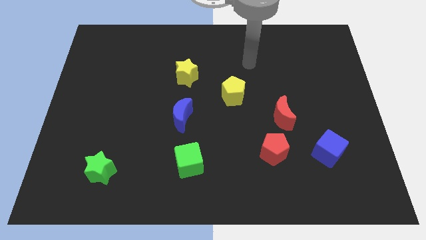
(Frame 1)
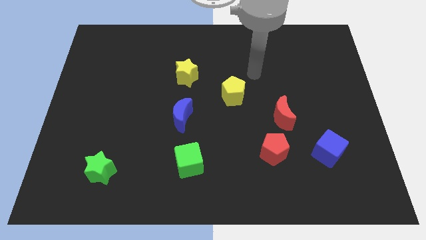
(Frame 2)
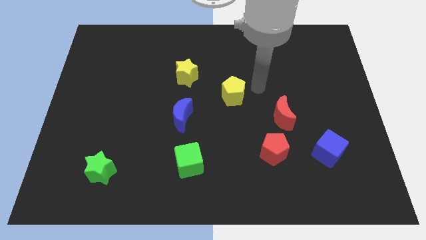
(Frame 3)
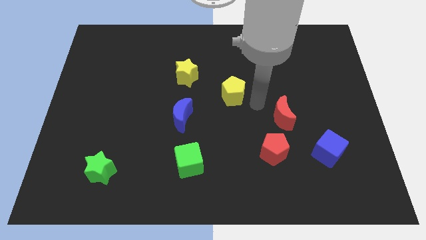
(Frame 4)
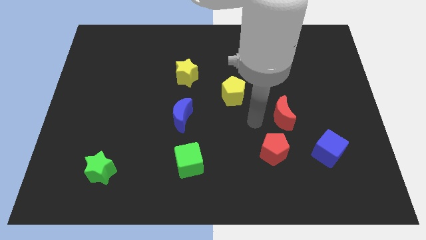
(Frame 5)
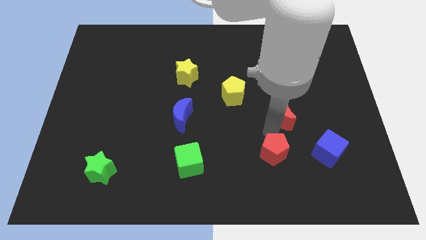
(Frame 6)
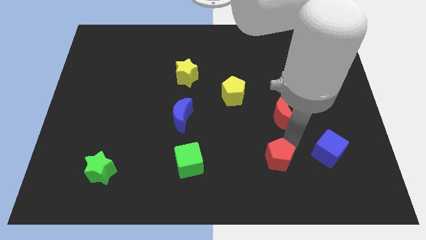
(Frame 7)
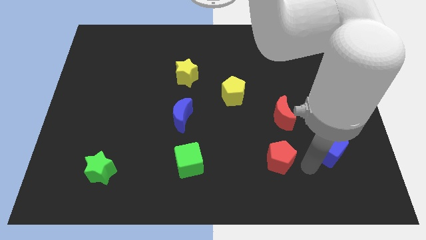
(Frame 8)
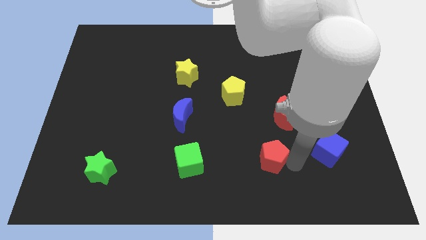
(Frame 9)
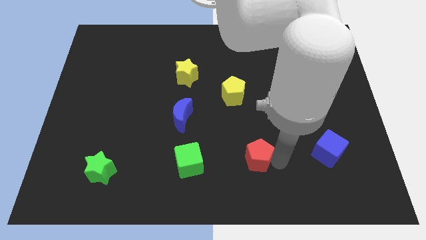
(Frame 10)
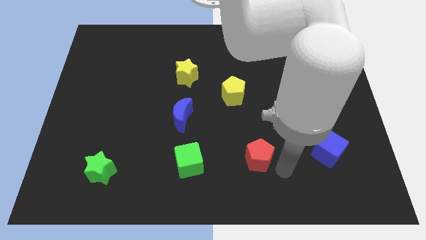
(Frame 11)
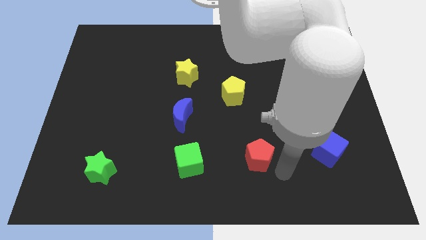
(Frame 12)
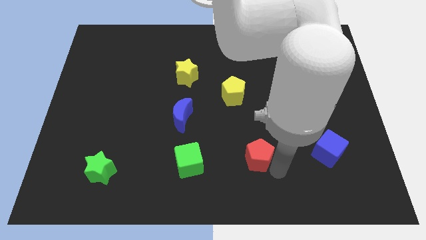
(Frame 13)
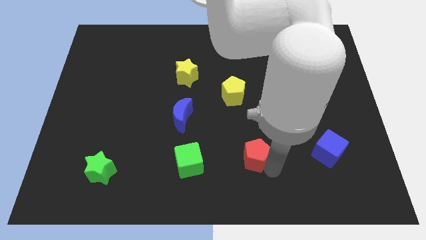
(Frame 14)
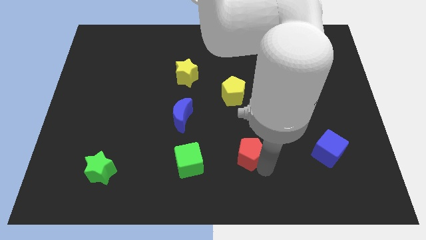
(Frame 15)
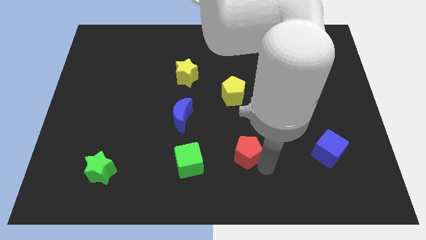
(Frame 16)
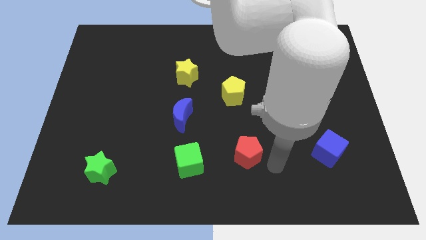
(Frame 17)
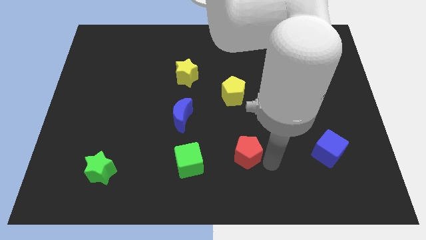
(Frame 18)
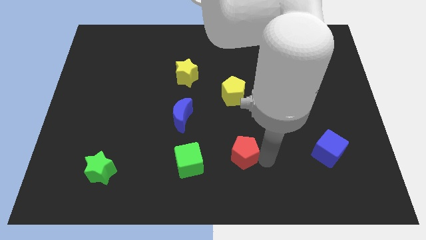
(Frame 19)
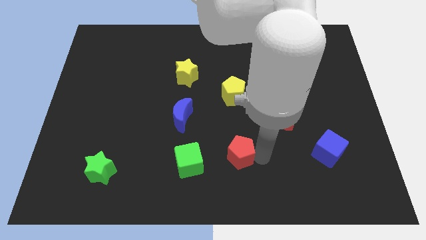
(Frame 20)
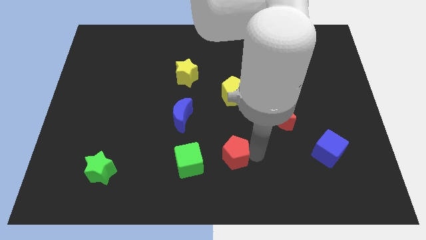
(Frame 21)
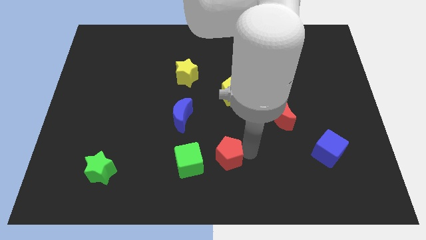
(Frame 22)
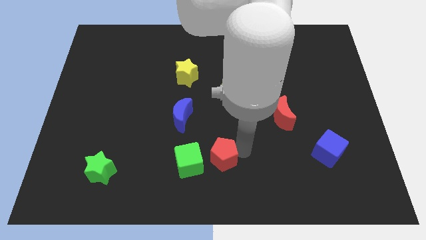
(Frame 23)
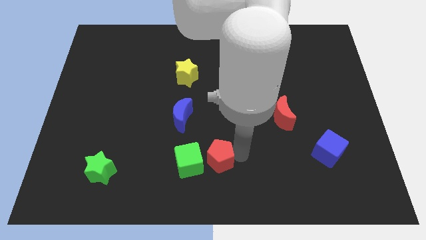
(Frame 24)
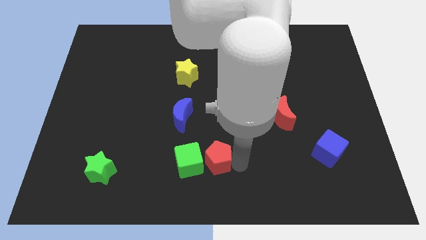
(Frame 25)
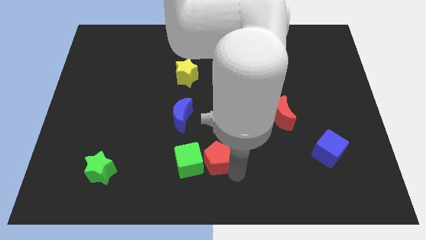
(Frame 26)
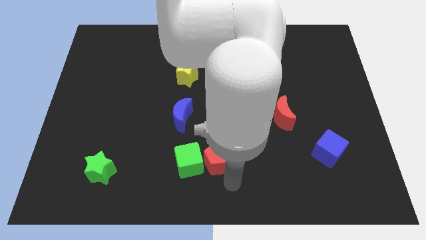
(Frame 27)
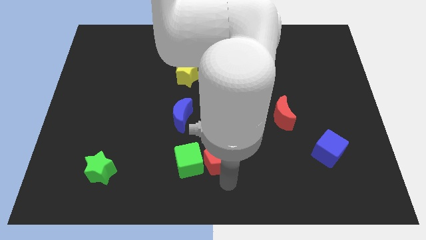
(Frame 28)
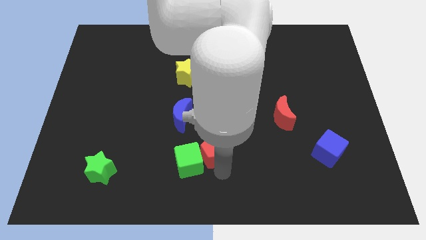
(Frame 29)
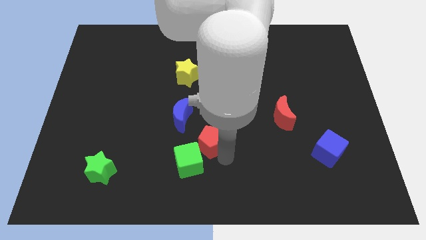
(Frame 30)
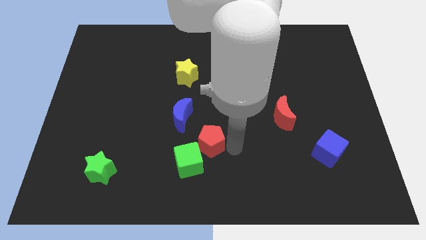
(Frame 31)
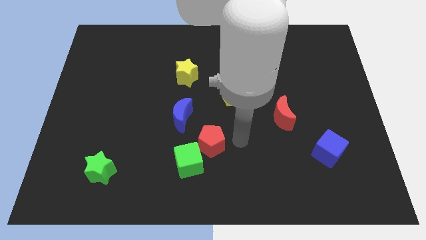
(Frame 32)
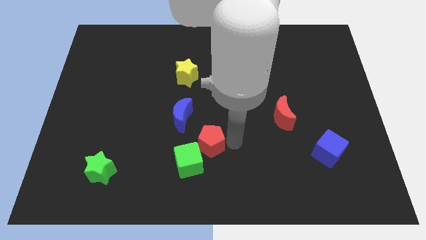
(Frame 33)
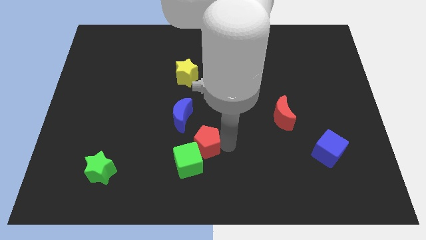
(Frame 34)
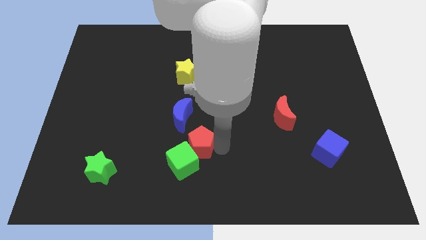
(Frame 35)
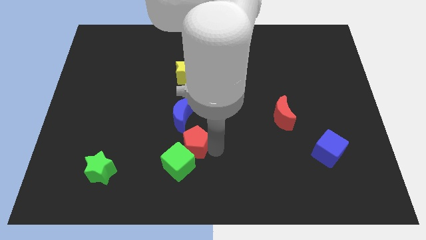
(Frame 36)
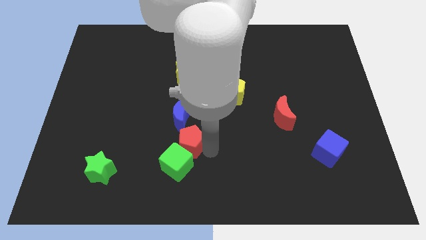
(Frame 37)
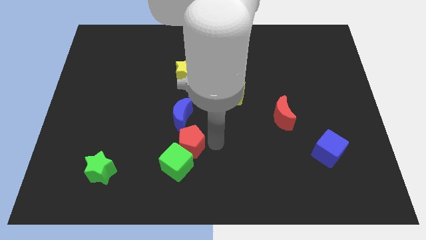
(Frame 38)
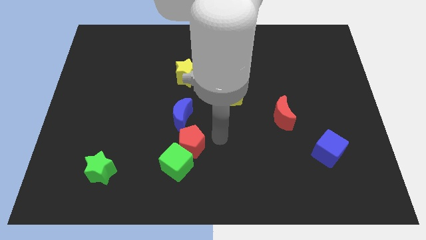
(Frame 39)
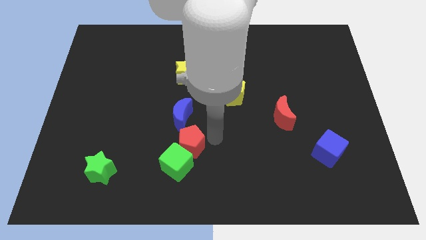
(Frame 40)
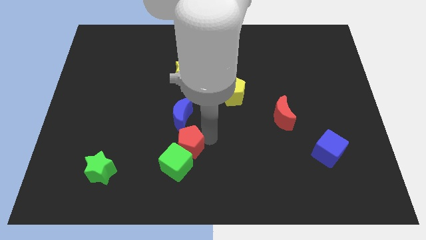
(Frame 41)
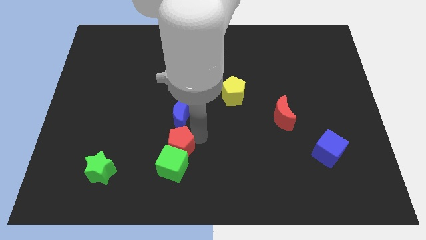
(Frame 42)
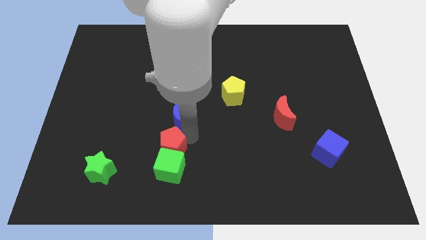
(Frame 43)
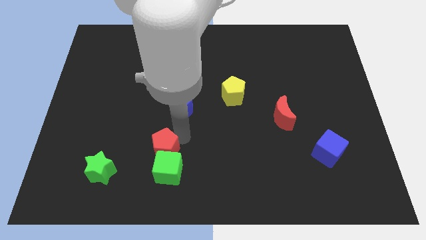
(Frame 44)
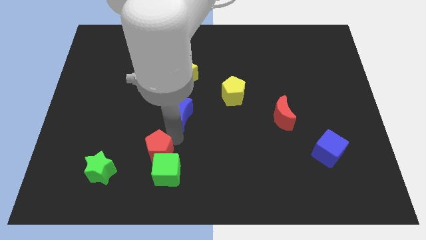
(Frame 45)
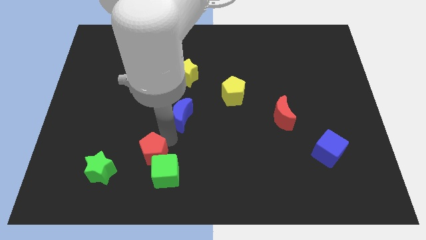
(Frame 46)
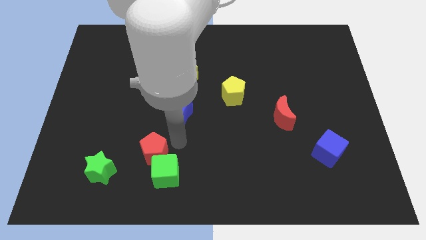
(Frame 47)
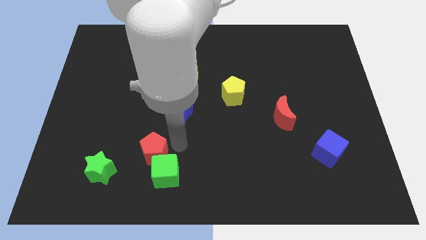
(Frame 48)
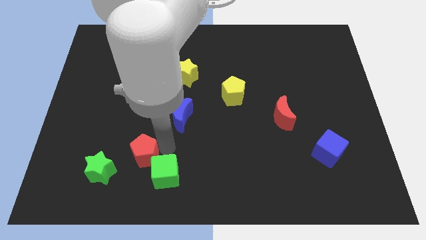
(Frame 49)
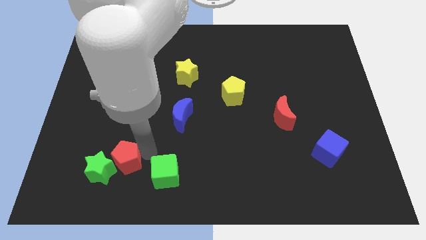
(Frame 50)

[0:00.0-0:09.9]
move the red pentagon next to the green star

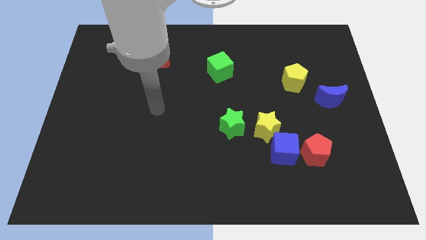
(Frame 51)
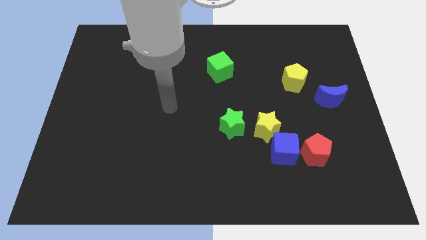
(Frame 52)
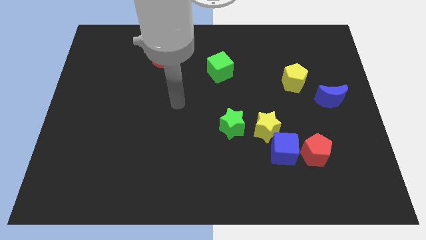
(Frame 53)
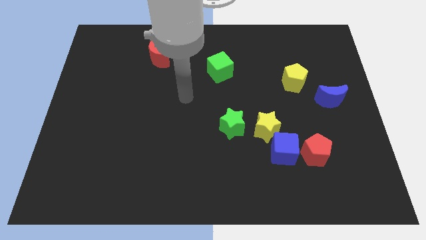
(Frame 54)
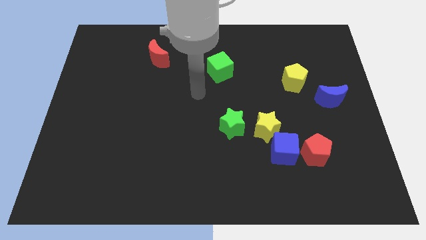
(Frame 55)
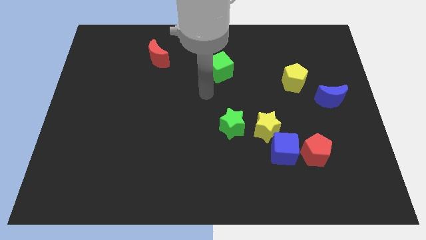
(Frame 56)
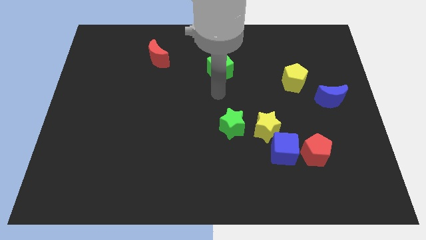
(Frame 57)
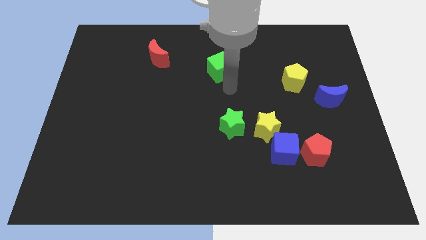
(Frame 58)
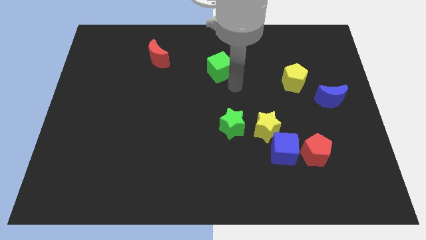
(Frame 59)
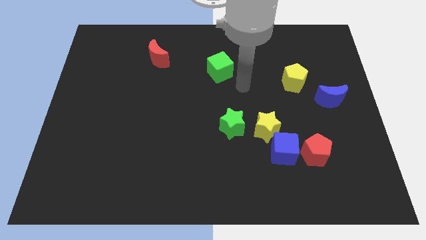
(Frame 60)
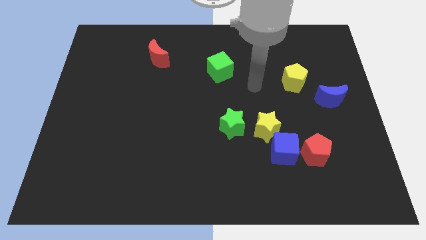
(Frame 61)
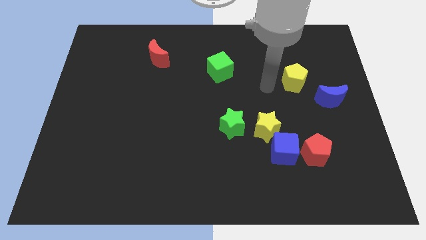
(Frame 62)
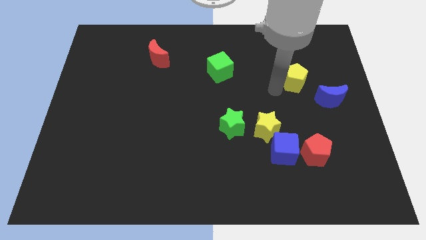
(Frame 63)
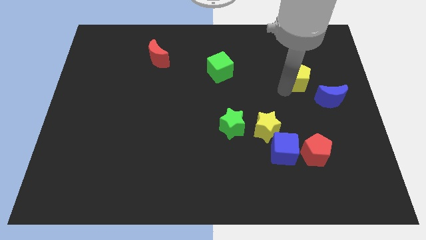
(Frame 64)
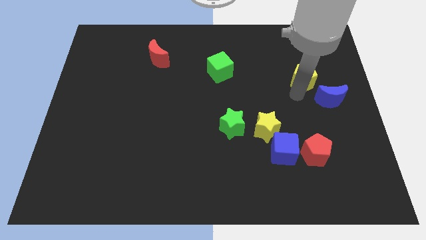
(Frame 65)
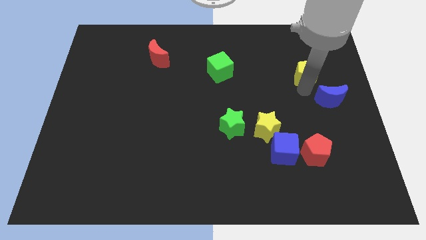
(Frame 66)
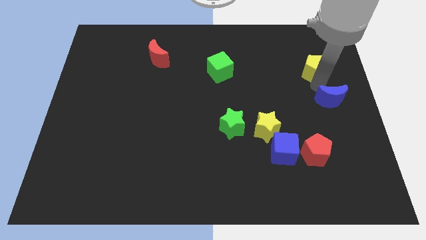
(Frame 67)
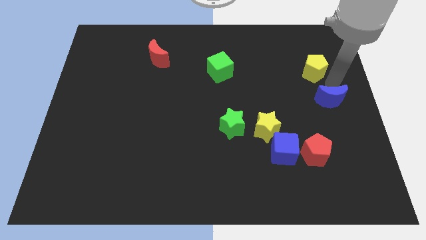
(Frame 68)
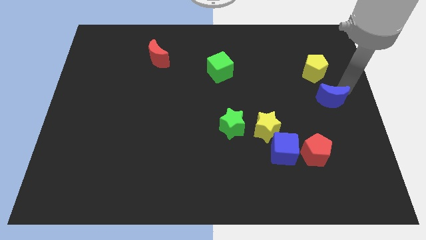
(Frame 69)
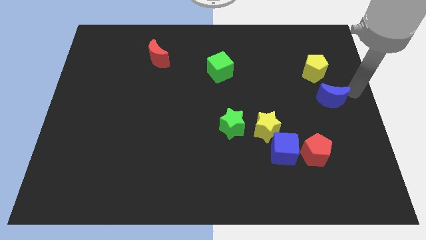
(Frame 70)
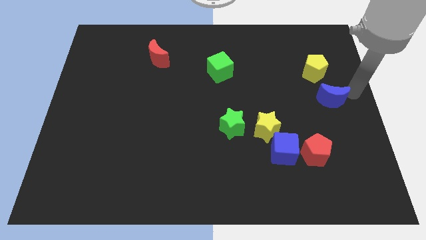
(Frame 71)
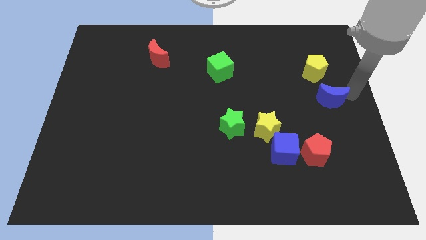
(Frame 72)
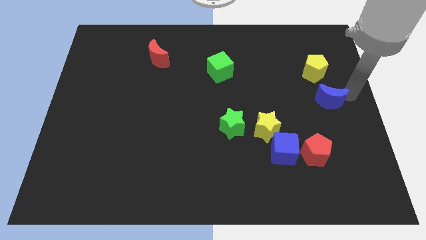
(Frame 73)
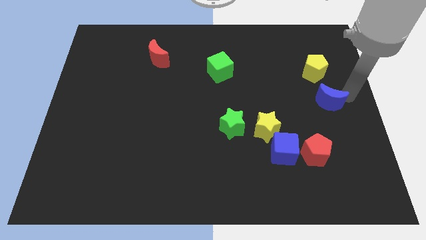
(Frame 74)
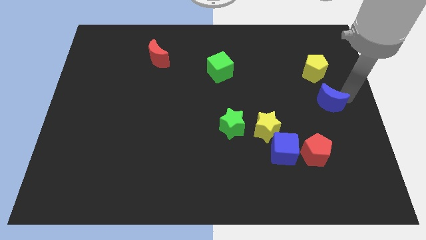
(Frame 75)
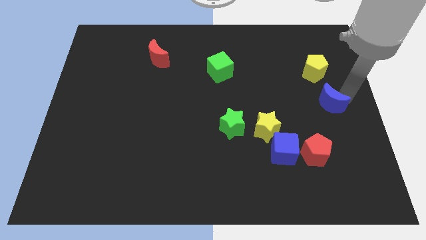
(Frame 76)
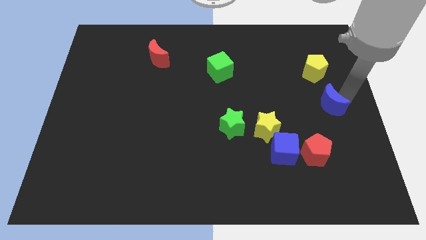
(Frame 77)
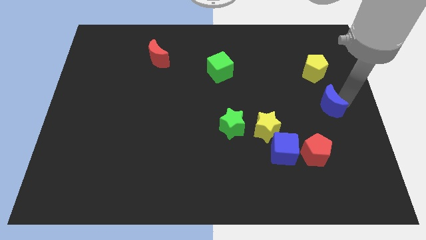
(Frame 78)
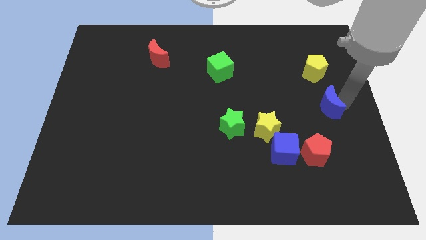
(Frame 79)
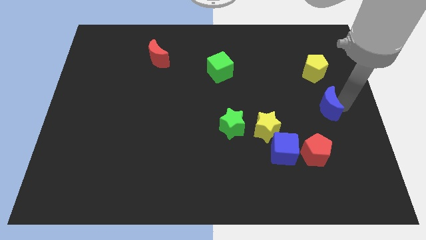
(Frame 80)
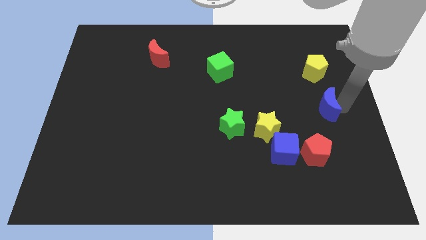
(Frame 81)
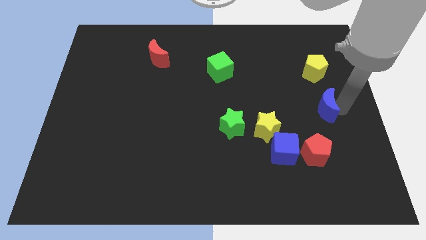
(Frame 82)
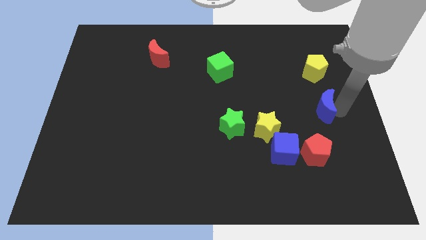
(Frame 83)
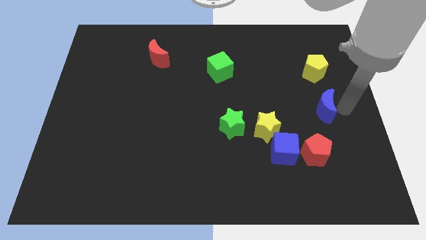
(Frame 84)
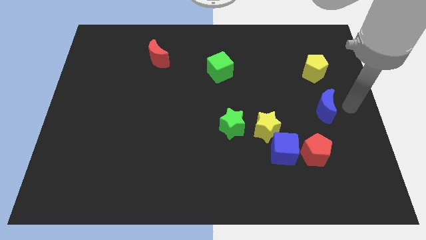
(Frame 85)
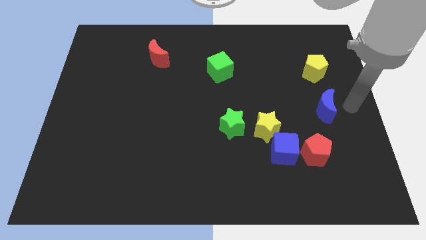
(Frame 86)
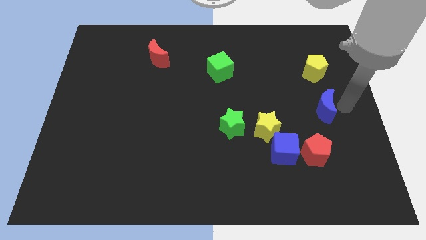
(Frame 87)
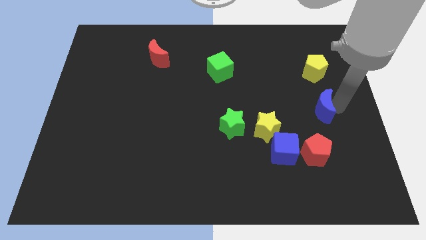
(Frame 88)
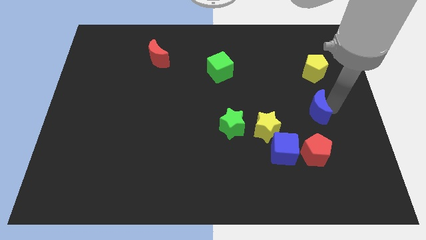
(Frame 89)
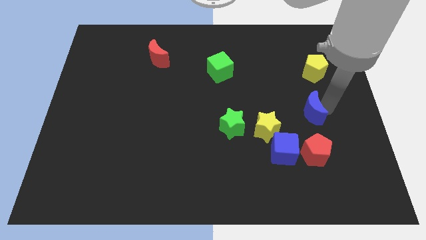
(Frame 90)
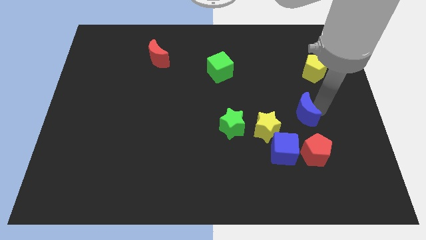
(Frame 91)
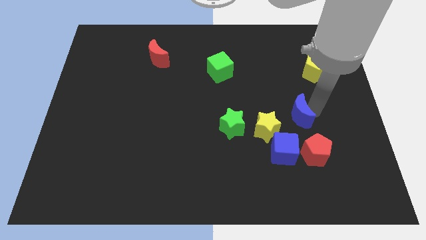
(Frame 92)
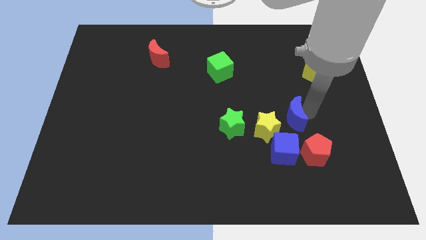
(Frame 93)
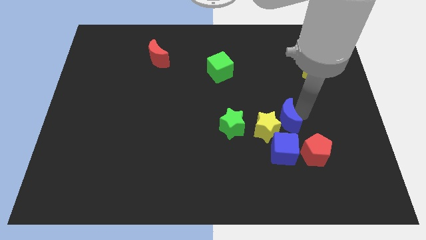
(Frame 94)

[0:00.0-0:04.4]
put the blue moon next to the yellow star
